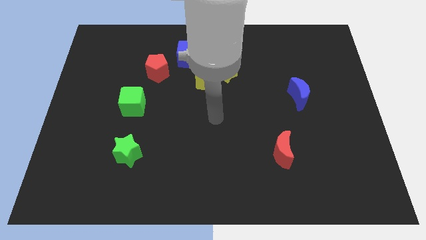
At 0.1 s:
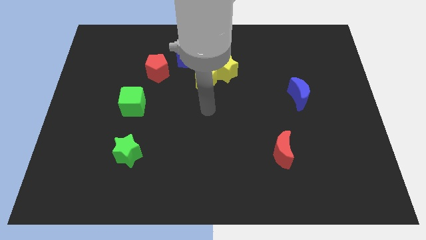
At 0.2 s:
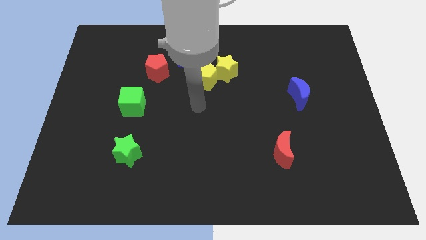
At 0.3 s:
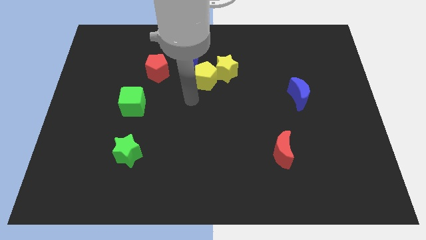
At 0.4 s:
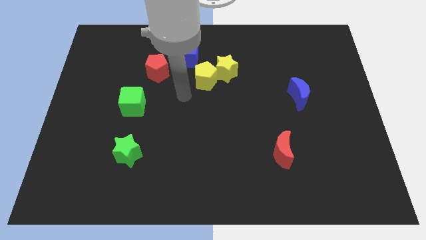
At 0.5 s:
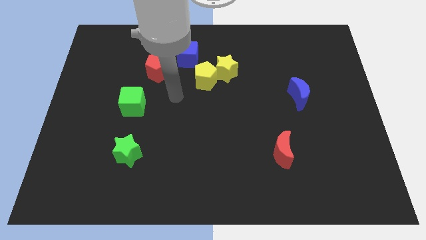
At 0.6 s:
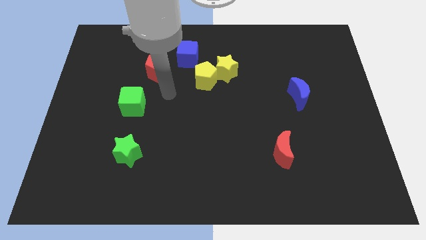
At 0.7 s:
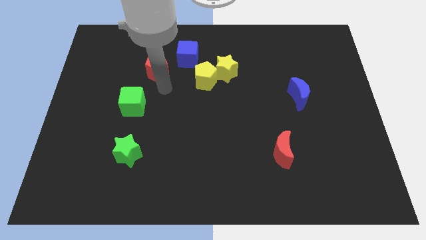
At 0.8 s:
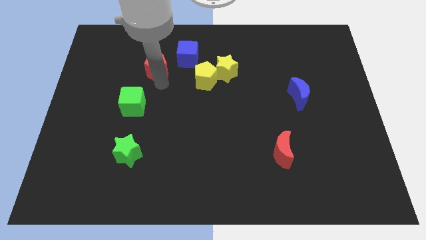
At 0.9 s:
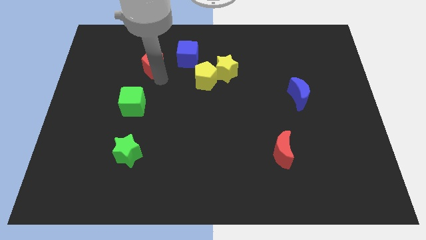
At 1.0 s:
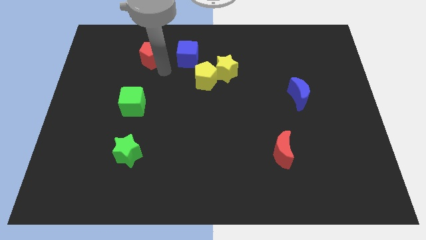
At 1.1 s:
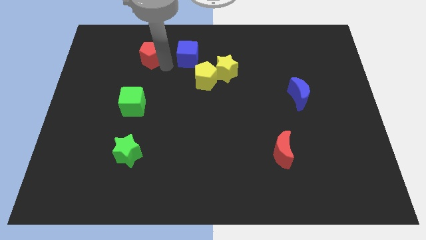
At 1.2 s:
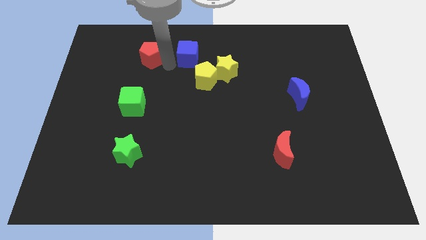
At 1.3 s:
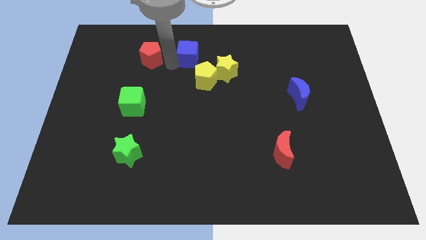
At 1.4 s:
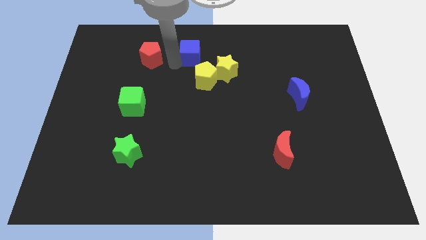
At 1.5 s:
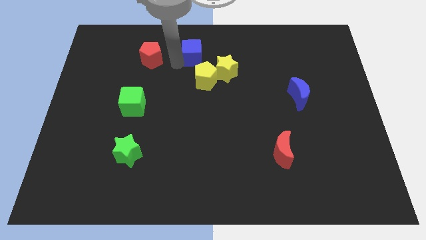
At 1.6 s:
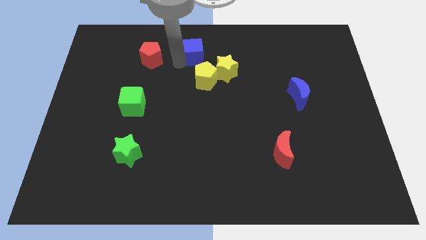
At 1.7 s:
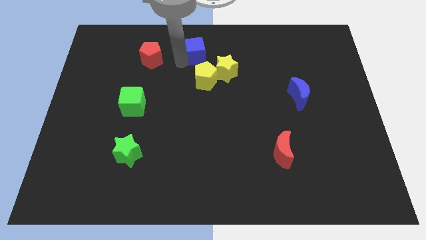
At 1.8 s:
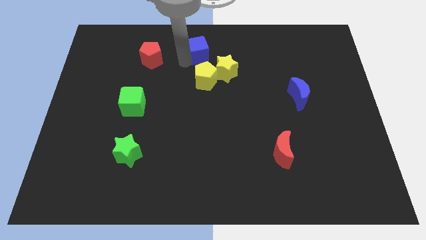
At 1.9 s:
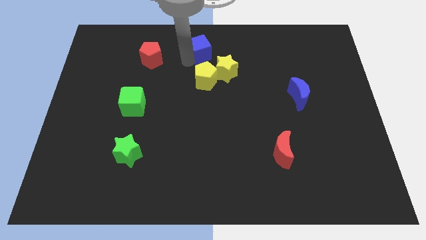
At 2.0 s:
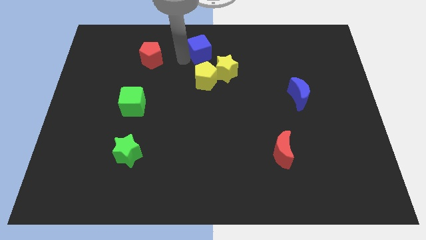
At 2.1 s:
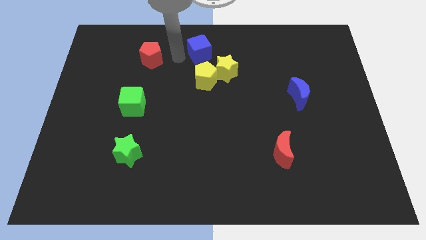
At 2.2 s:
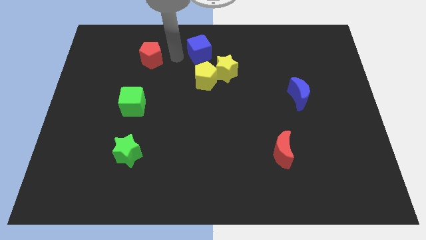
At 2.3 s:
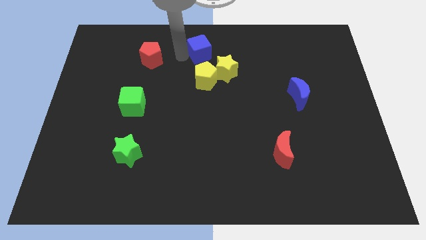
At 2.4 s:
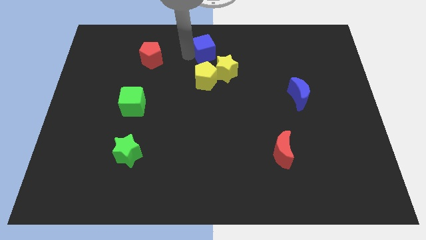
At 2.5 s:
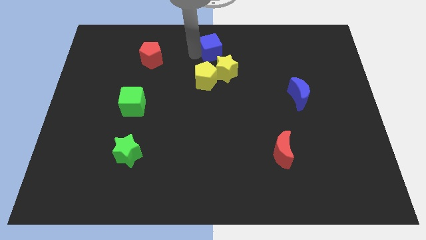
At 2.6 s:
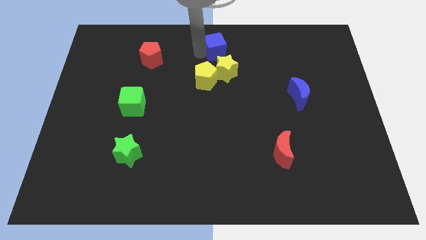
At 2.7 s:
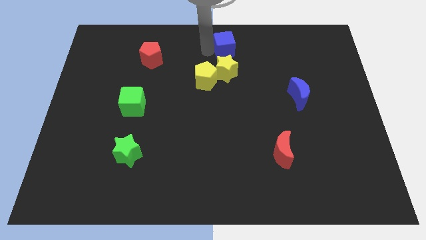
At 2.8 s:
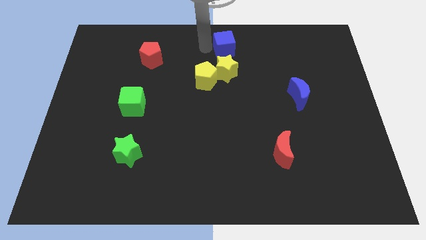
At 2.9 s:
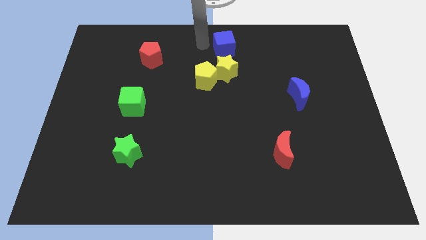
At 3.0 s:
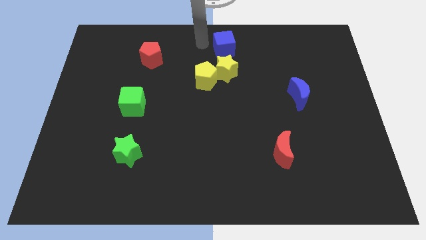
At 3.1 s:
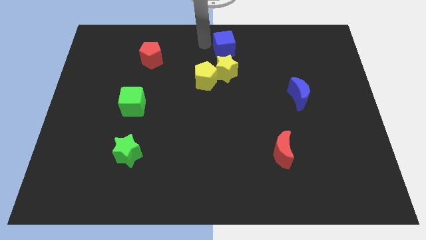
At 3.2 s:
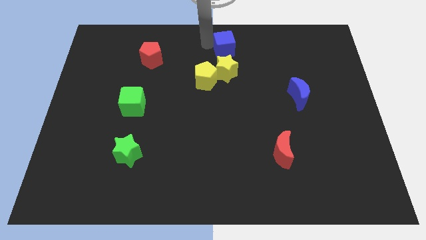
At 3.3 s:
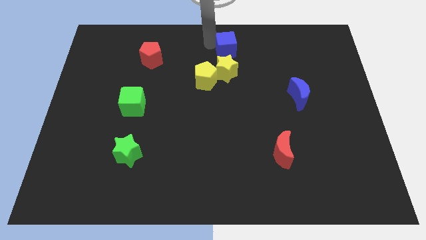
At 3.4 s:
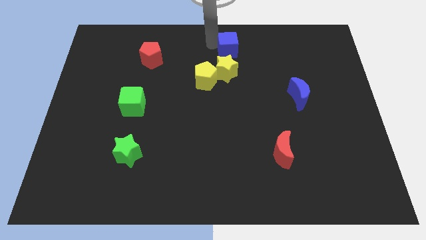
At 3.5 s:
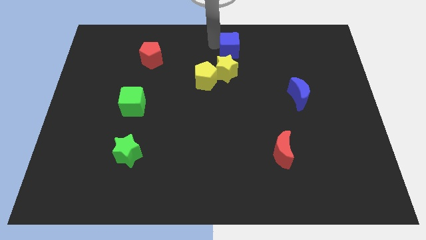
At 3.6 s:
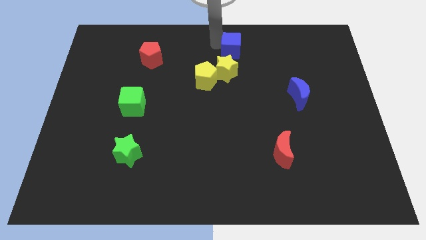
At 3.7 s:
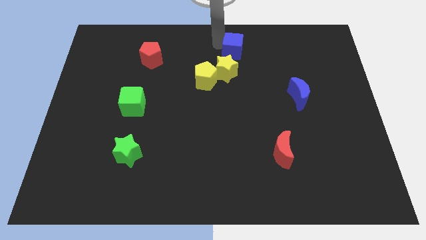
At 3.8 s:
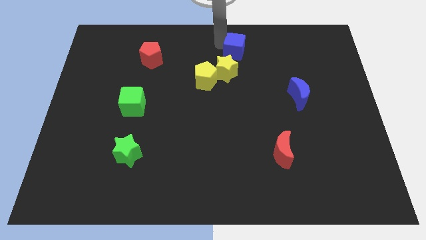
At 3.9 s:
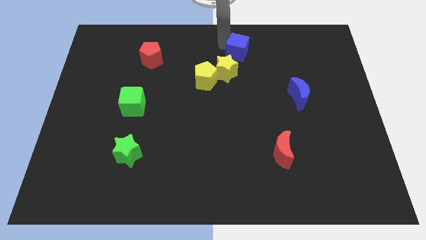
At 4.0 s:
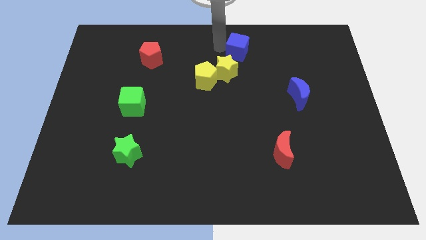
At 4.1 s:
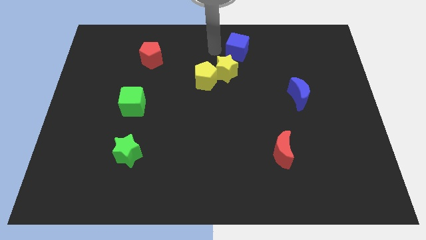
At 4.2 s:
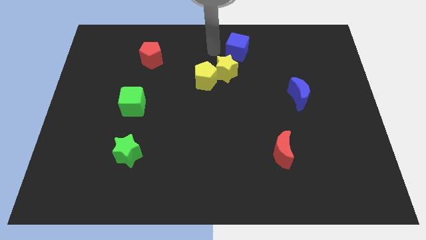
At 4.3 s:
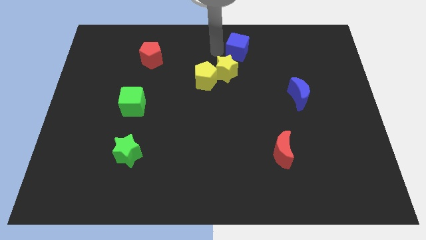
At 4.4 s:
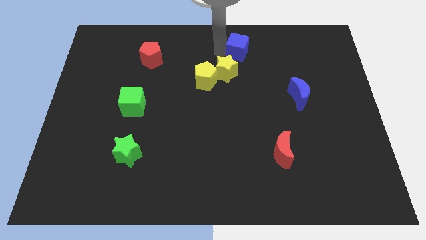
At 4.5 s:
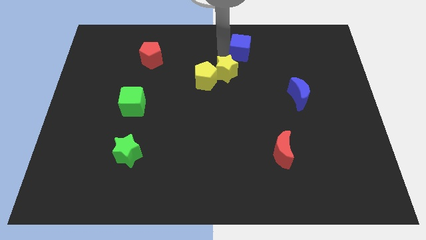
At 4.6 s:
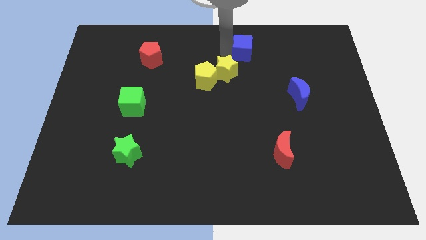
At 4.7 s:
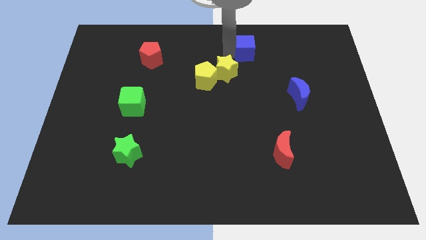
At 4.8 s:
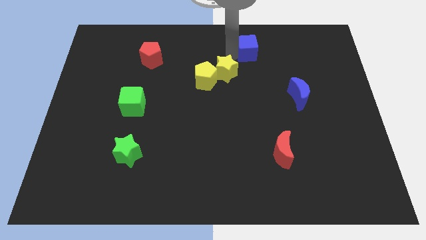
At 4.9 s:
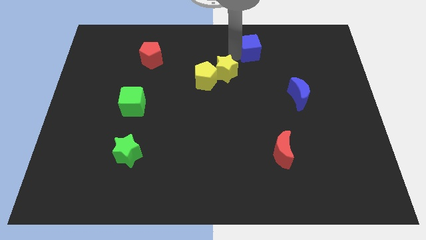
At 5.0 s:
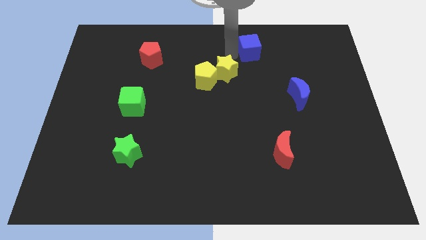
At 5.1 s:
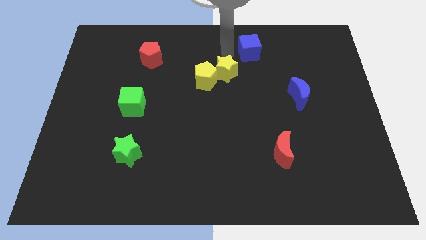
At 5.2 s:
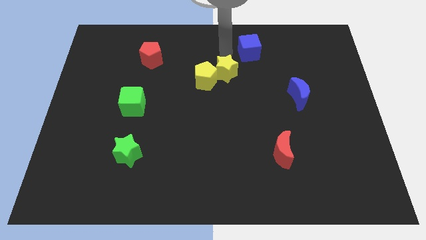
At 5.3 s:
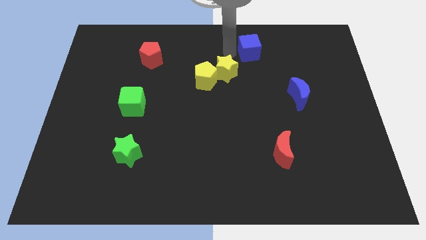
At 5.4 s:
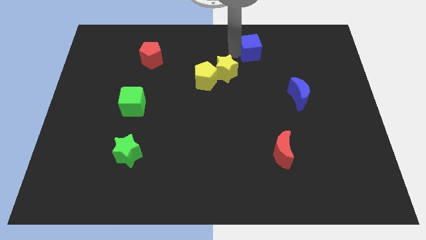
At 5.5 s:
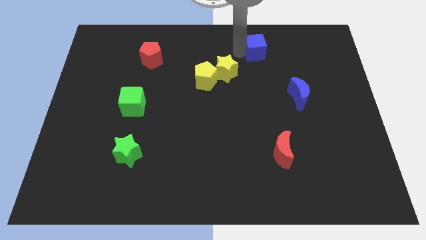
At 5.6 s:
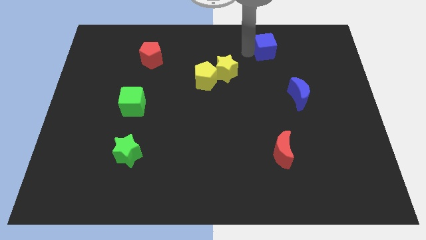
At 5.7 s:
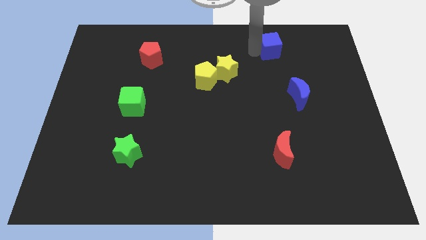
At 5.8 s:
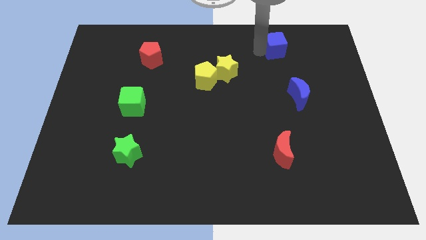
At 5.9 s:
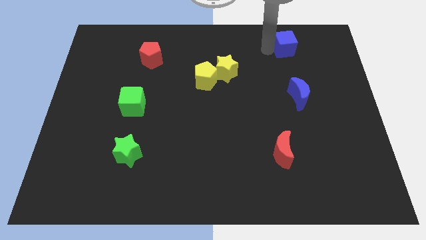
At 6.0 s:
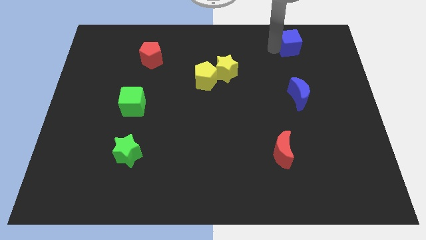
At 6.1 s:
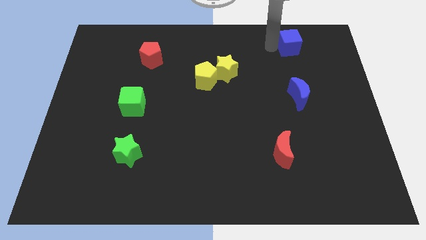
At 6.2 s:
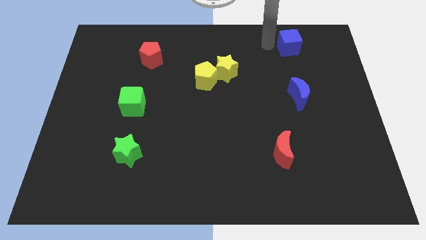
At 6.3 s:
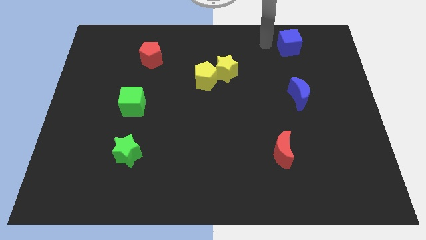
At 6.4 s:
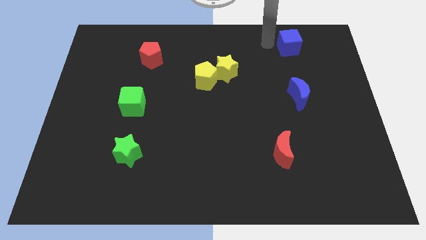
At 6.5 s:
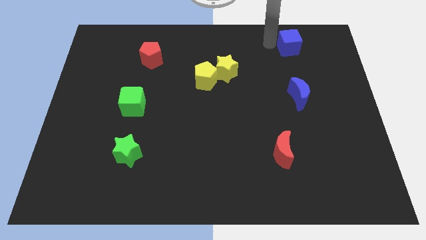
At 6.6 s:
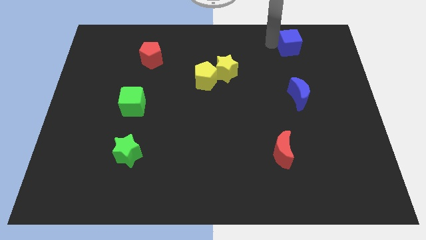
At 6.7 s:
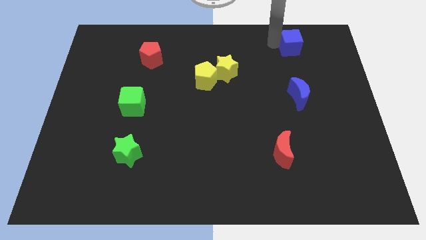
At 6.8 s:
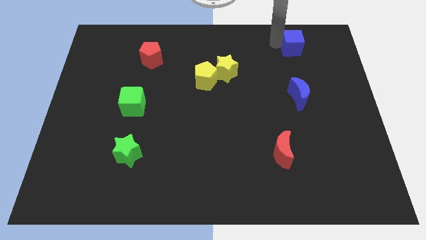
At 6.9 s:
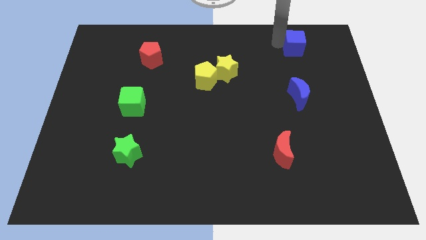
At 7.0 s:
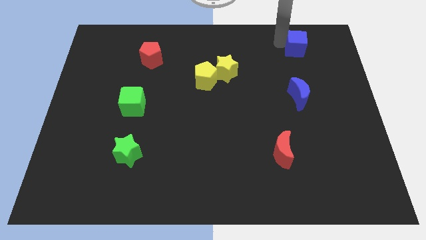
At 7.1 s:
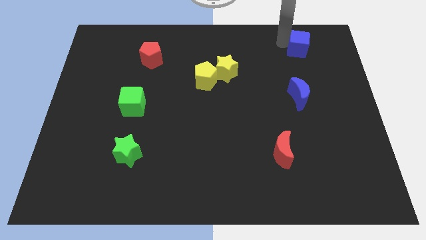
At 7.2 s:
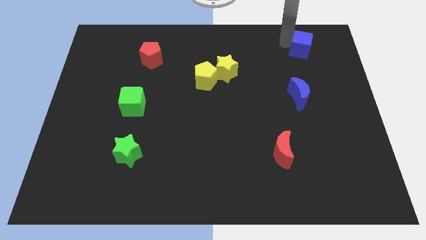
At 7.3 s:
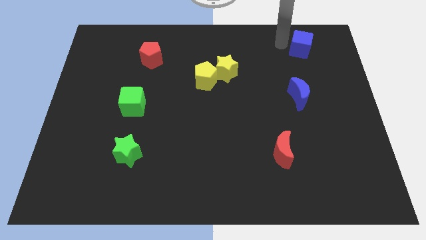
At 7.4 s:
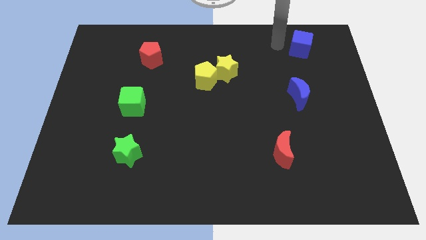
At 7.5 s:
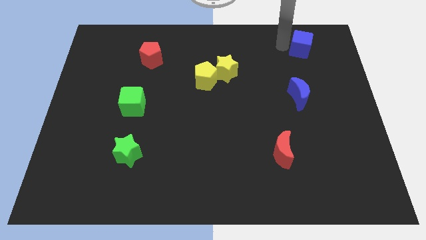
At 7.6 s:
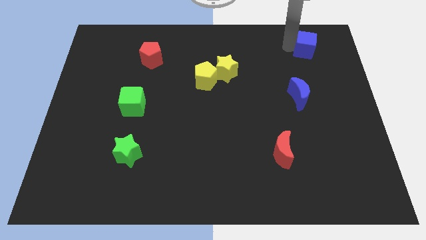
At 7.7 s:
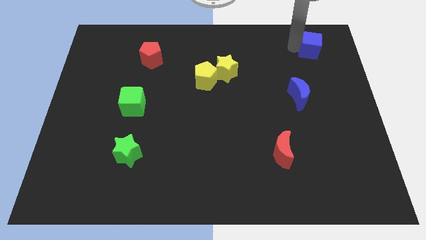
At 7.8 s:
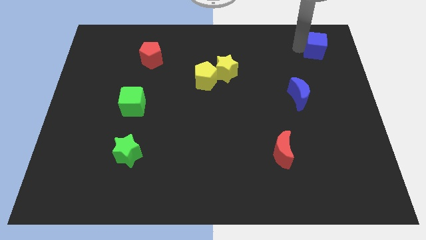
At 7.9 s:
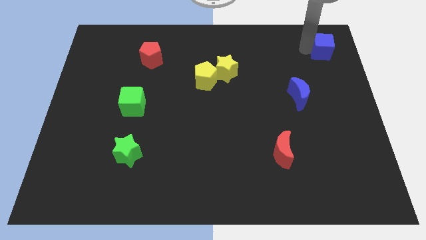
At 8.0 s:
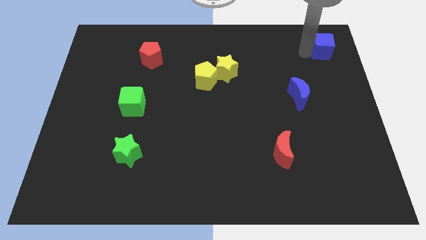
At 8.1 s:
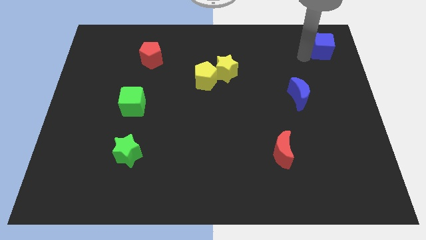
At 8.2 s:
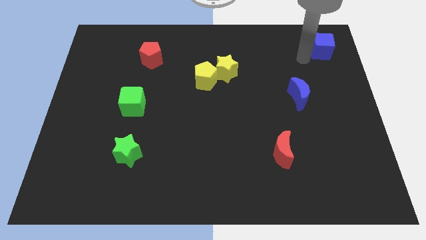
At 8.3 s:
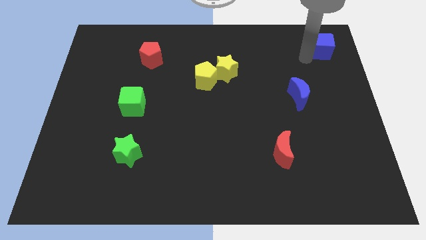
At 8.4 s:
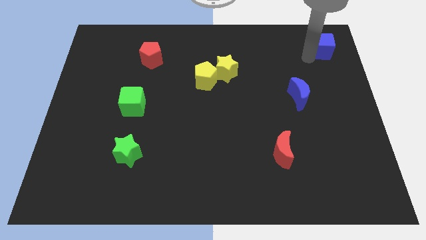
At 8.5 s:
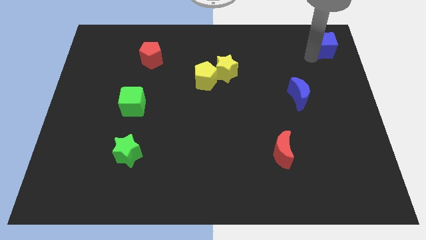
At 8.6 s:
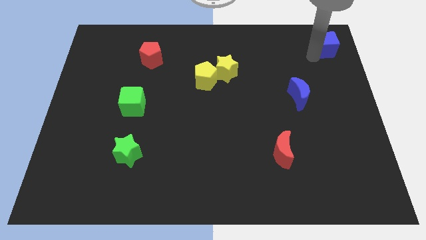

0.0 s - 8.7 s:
push the blue cube to the top right
